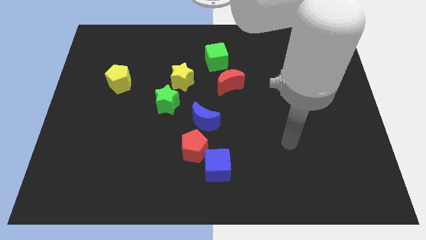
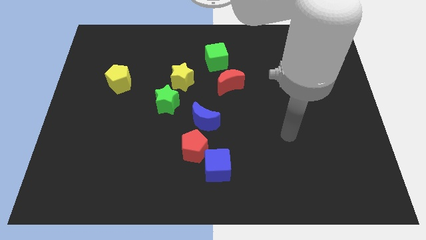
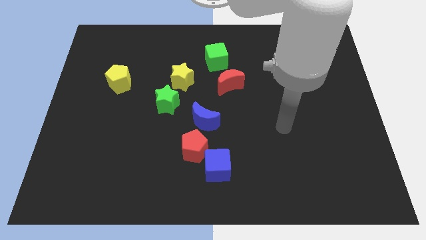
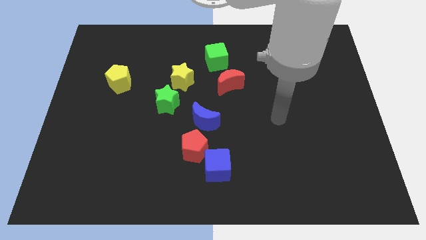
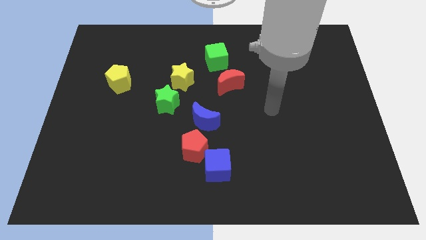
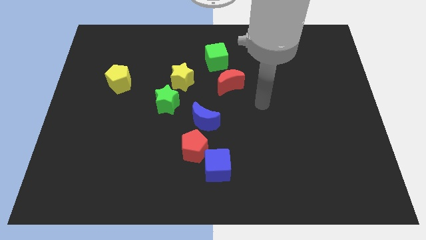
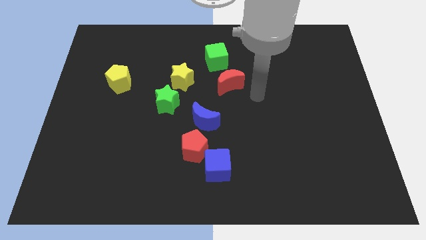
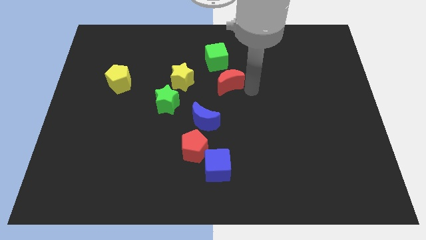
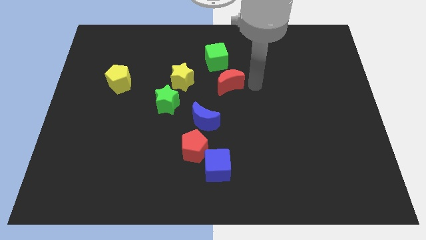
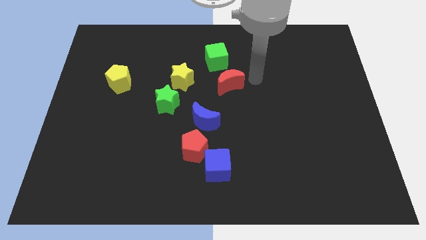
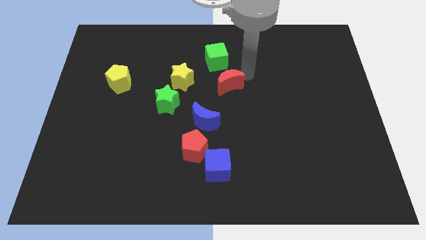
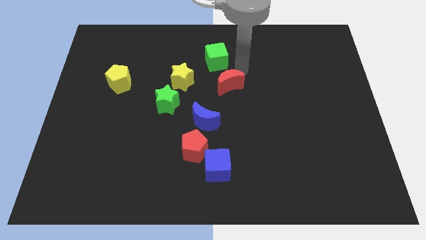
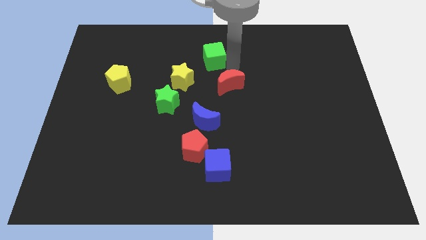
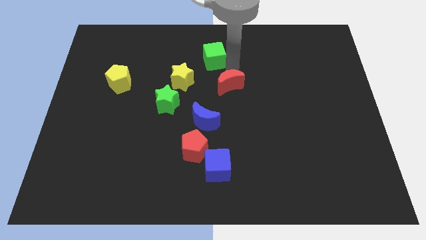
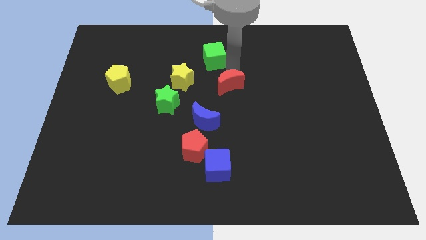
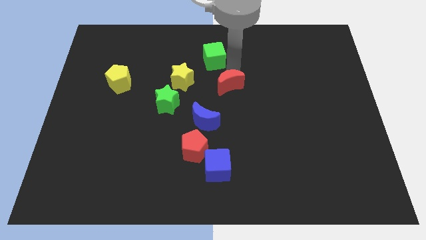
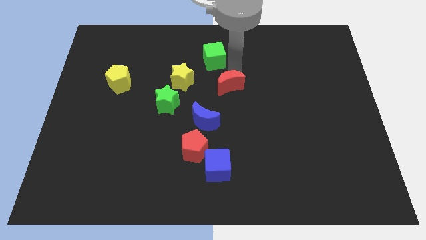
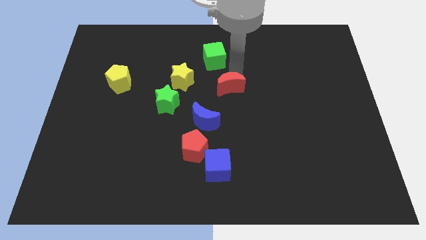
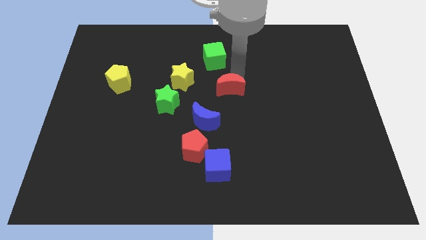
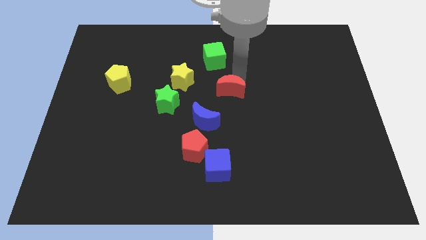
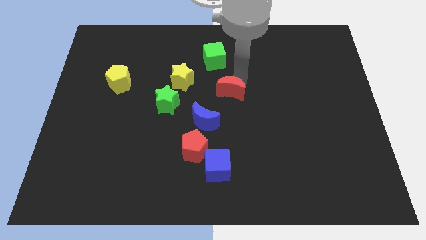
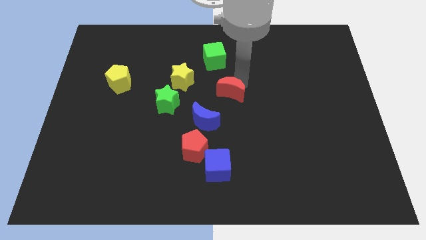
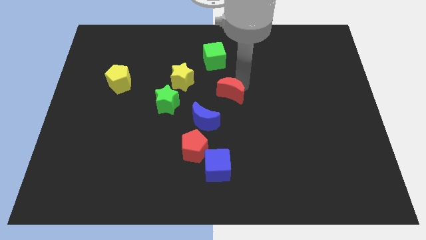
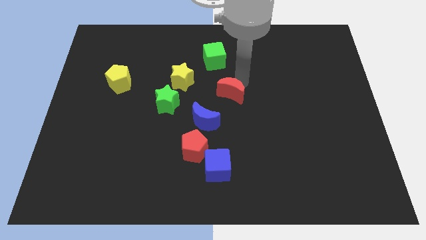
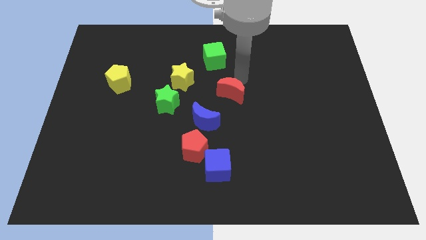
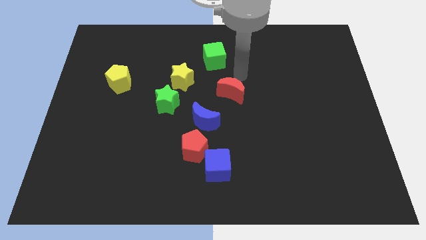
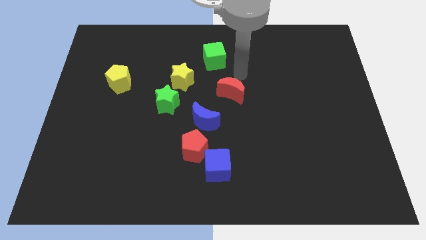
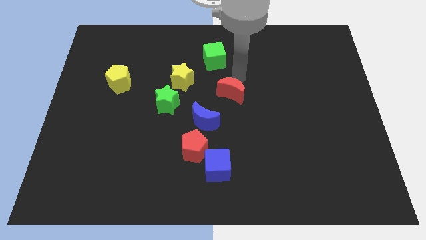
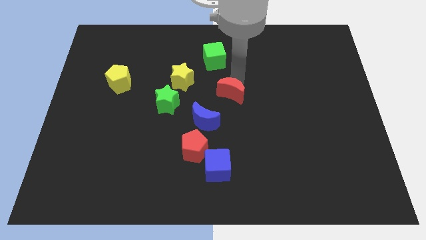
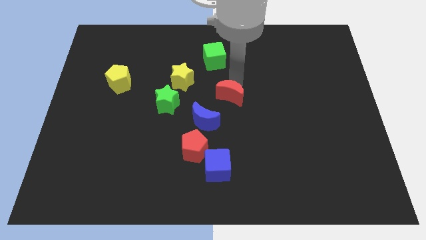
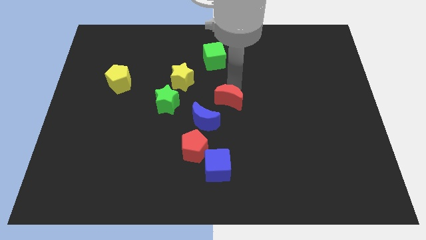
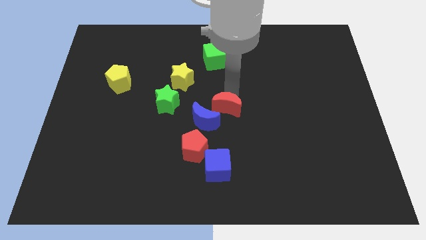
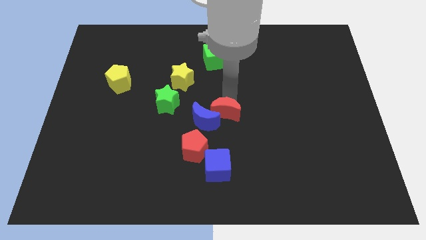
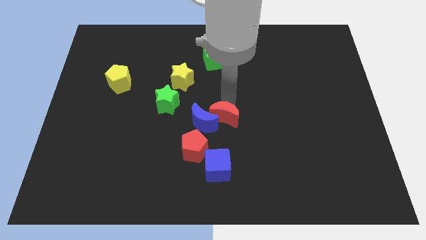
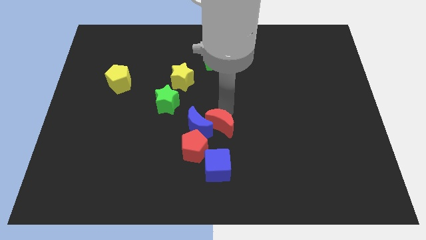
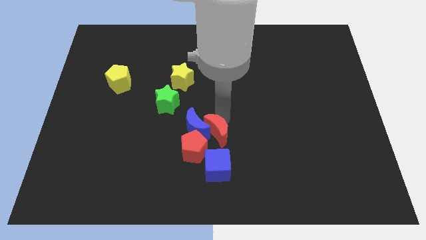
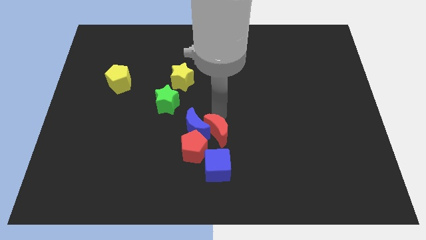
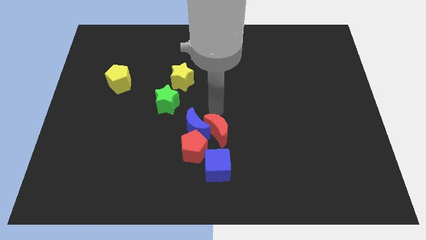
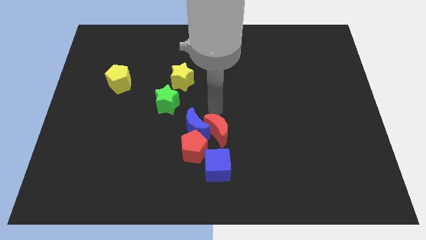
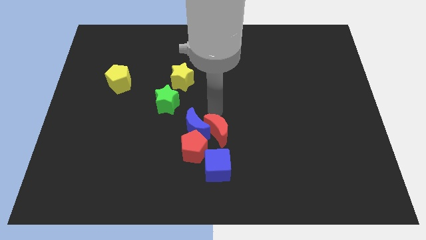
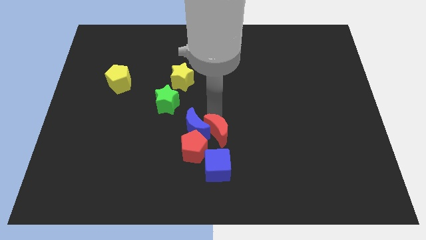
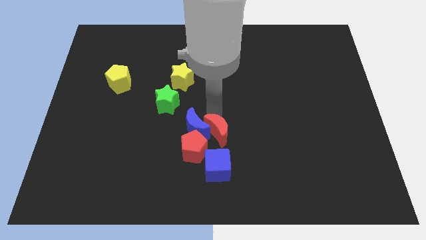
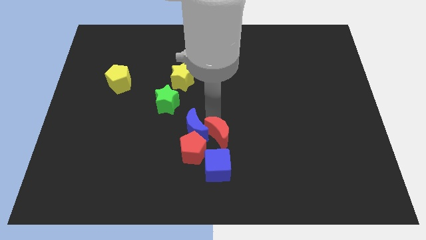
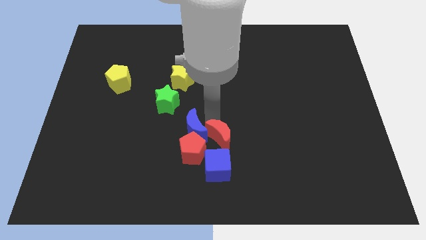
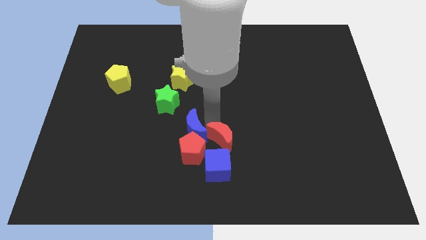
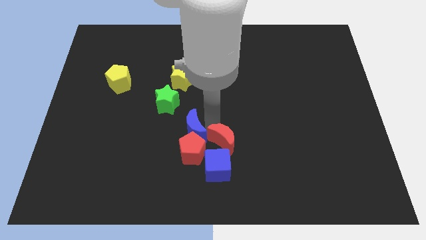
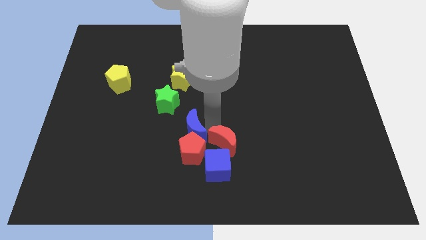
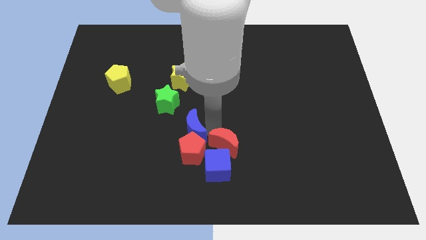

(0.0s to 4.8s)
put the red moon close to the blue cube

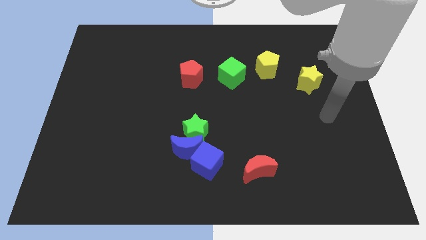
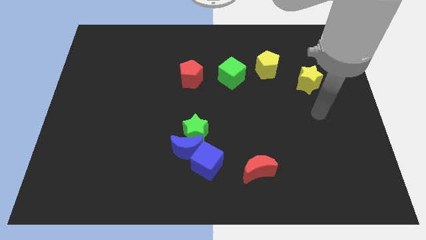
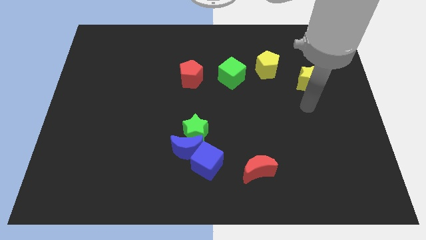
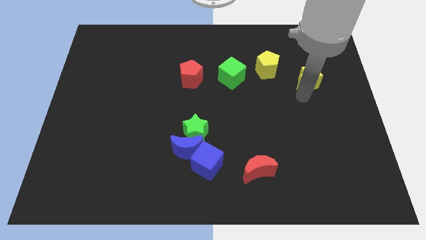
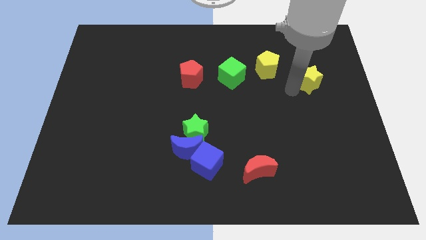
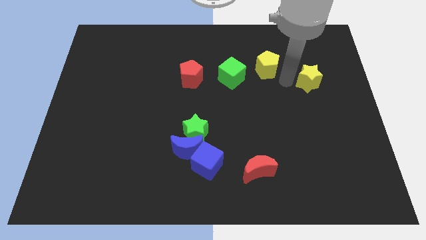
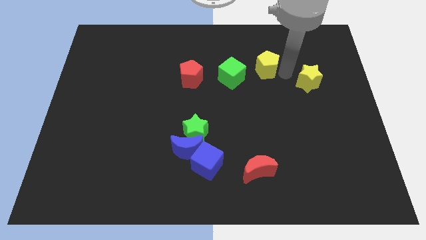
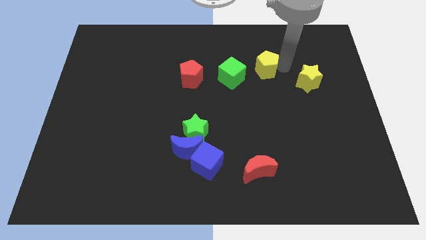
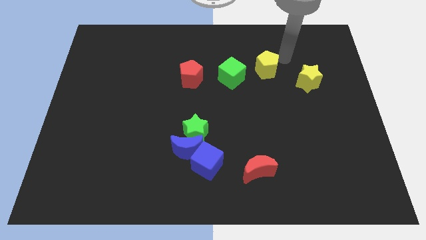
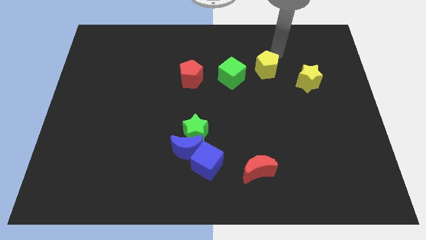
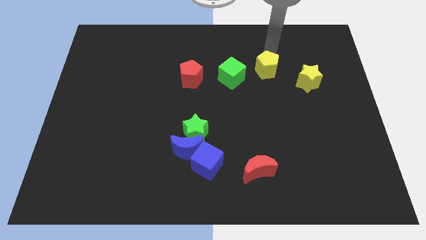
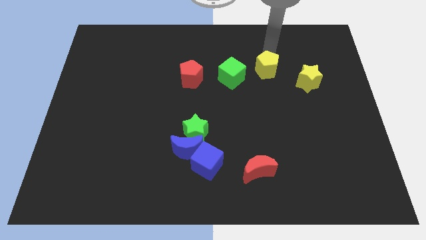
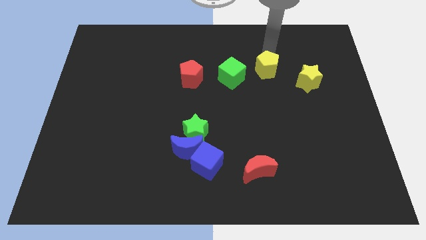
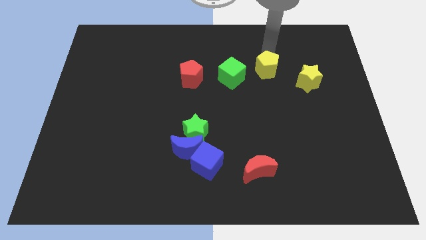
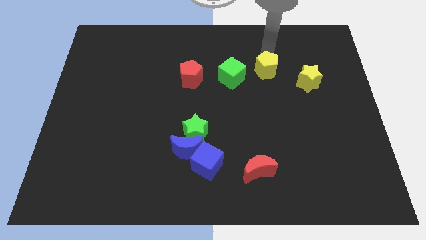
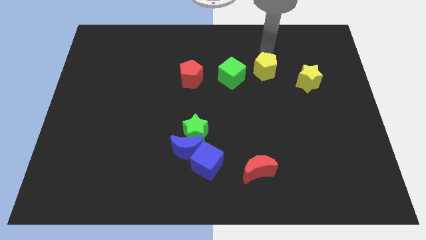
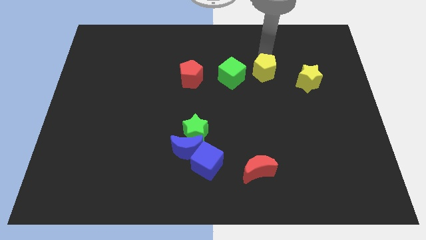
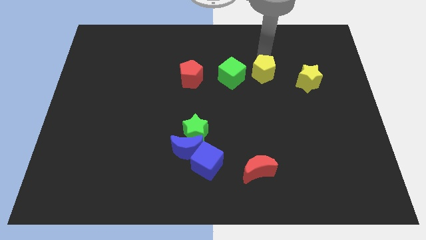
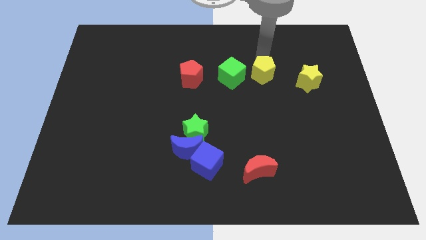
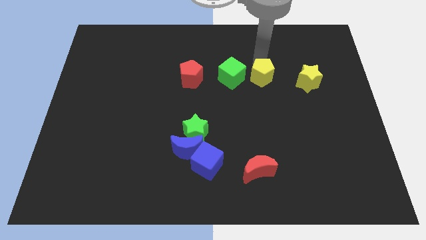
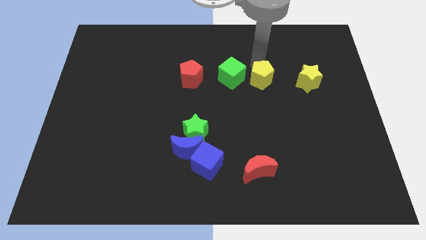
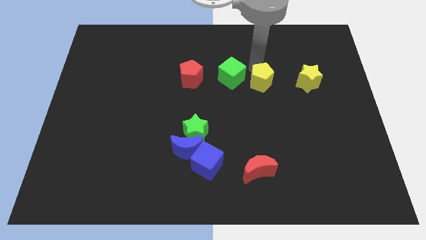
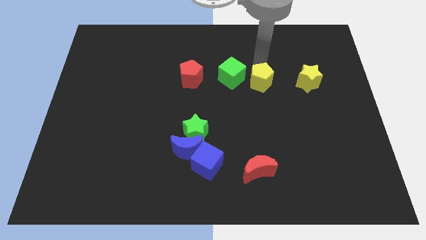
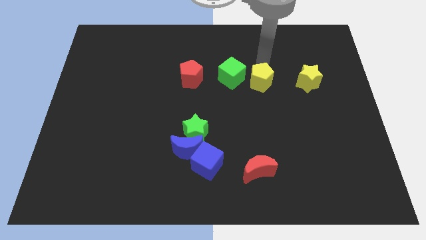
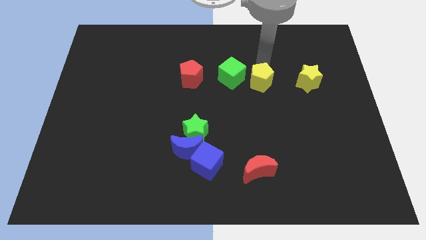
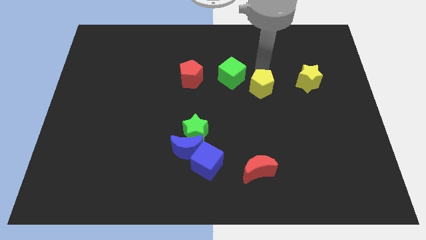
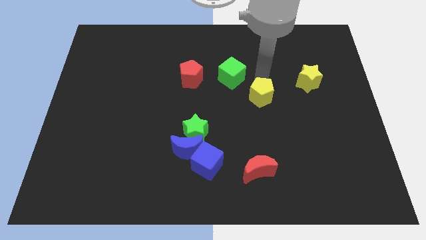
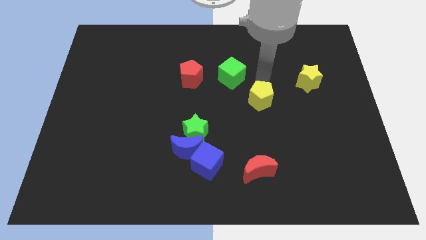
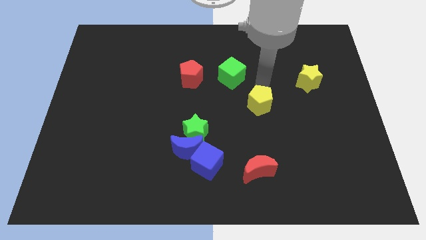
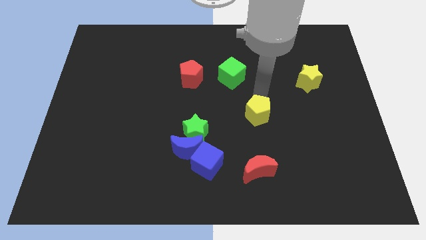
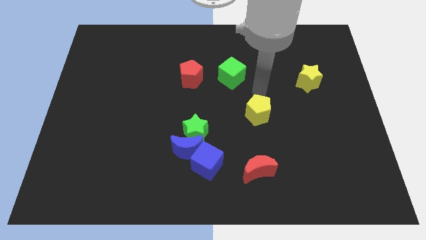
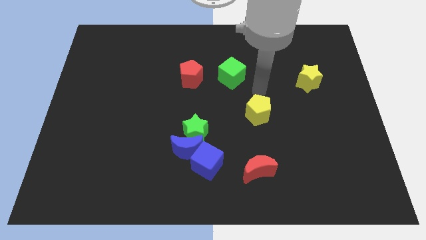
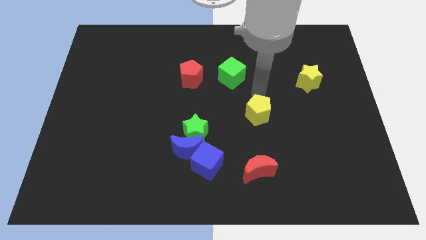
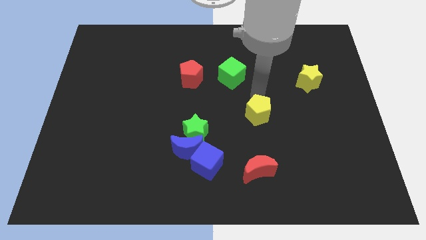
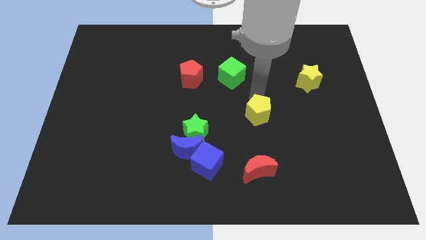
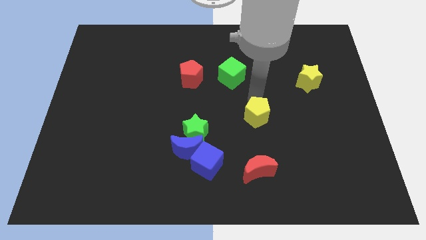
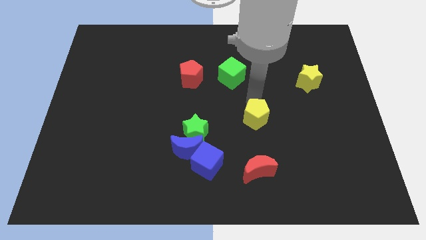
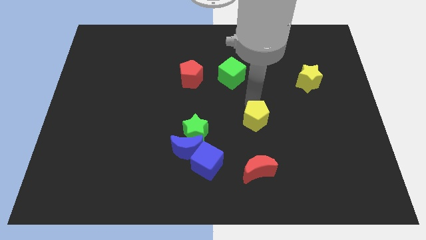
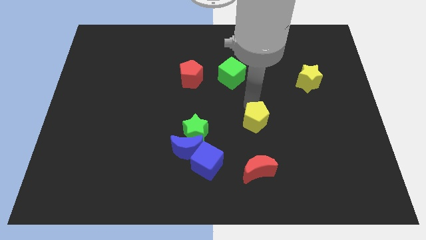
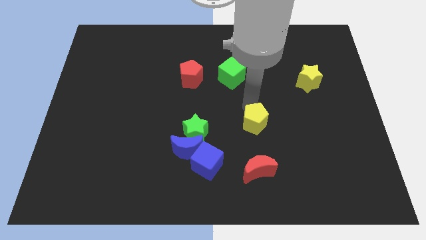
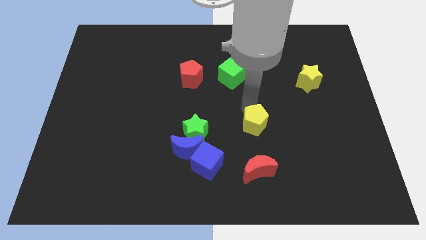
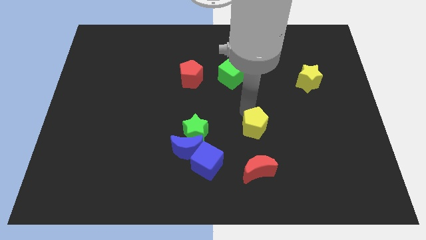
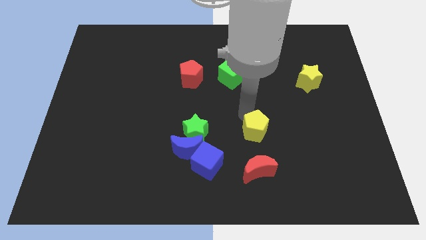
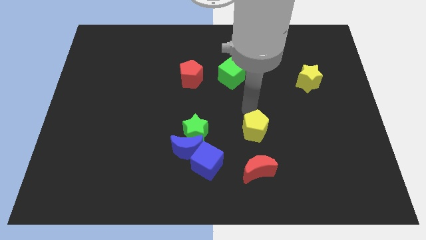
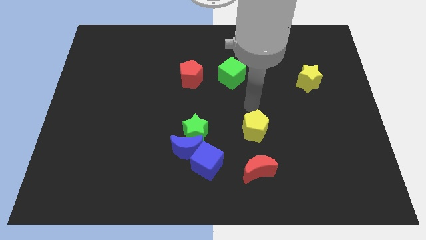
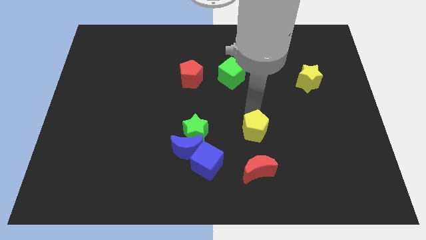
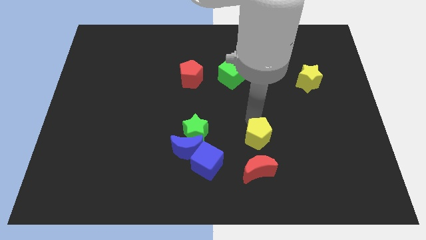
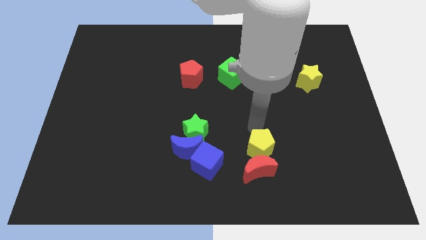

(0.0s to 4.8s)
put the yellow pentagon close to the red moon
